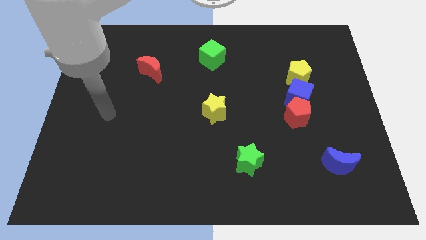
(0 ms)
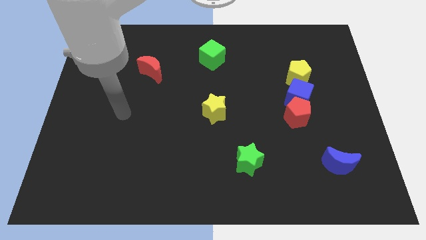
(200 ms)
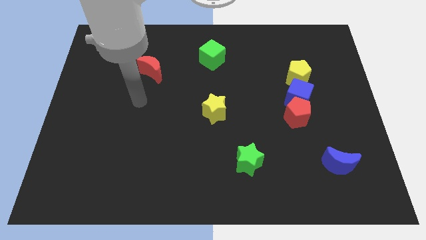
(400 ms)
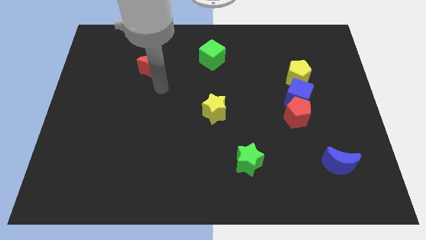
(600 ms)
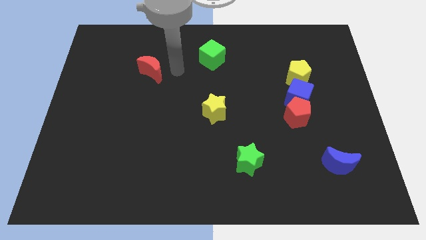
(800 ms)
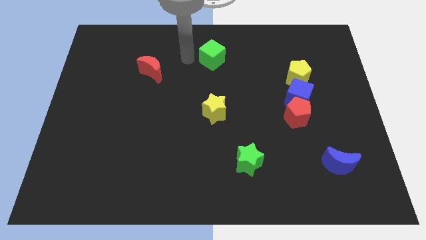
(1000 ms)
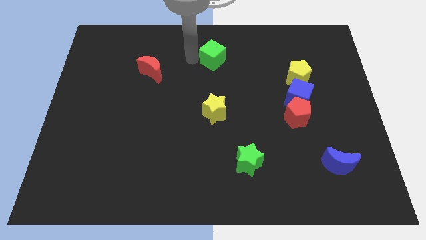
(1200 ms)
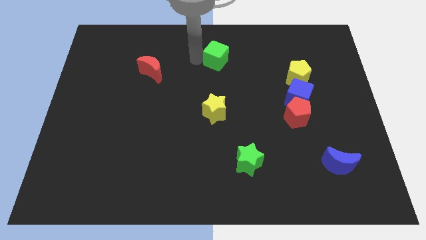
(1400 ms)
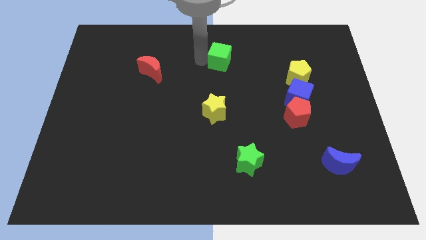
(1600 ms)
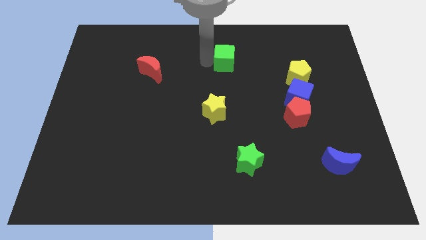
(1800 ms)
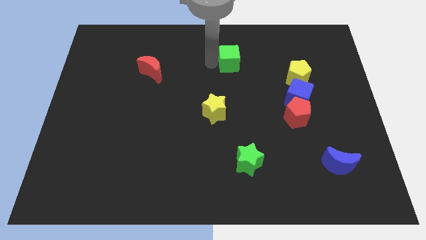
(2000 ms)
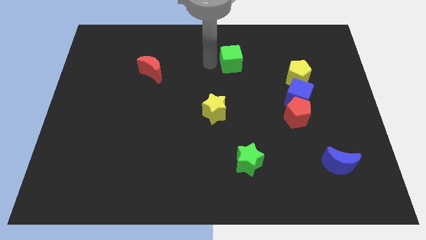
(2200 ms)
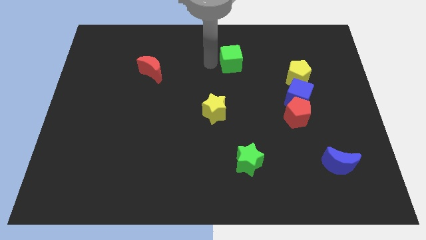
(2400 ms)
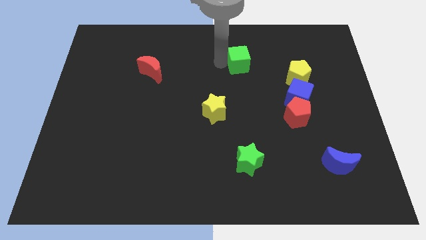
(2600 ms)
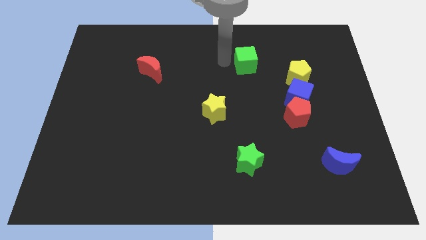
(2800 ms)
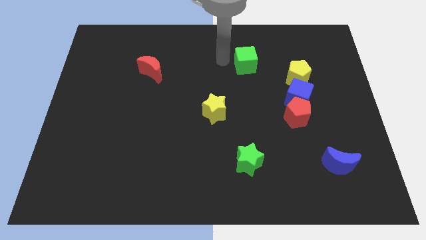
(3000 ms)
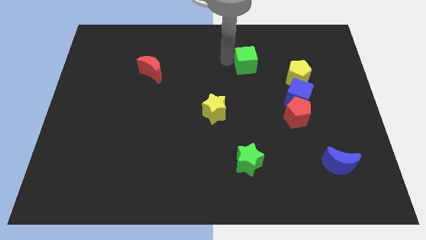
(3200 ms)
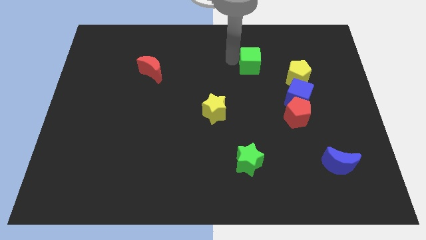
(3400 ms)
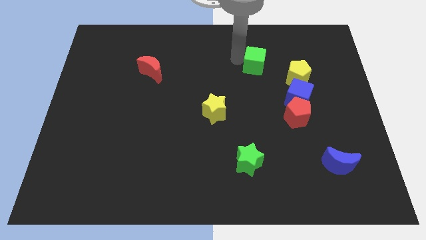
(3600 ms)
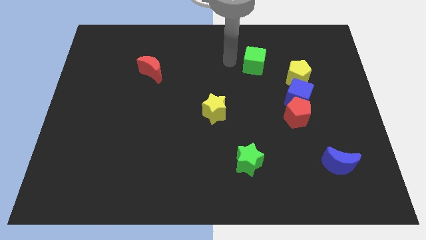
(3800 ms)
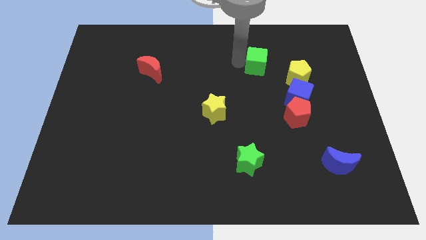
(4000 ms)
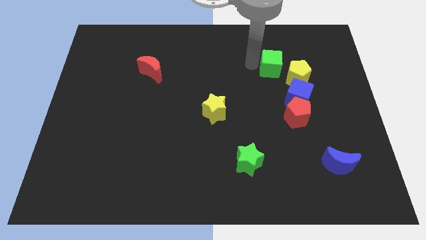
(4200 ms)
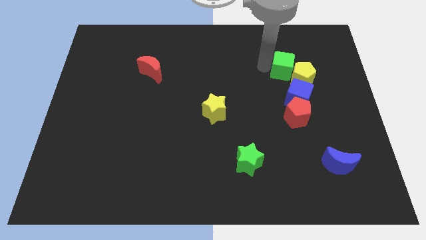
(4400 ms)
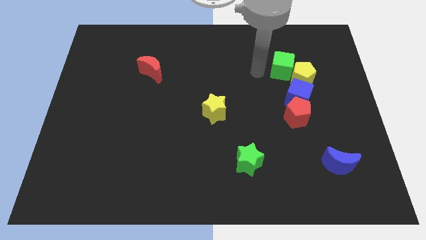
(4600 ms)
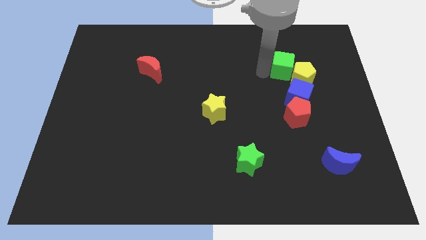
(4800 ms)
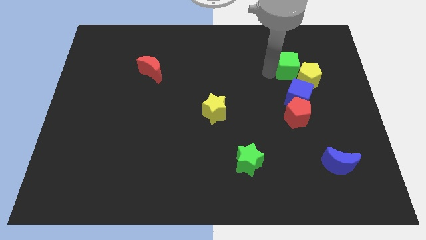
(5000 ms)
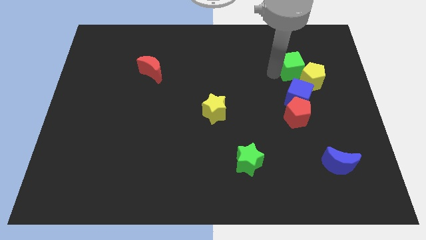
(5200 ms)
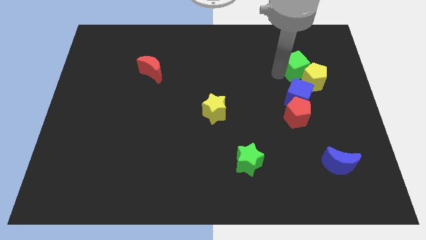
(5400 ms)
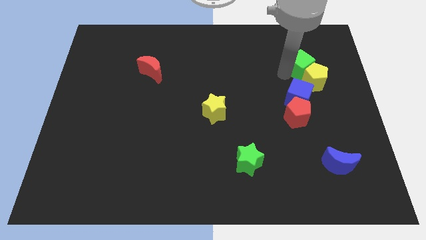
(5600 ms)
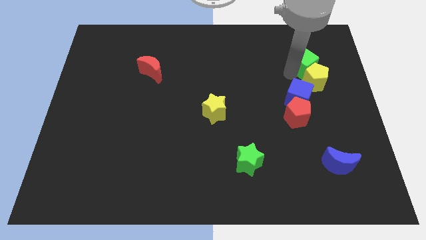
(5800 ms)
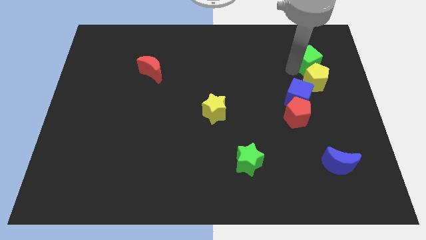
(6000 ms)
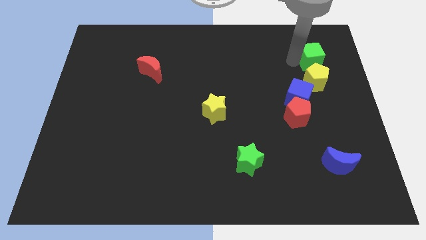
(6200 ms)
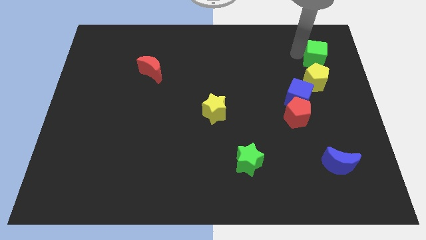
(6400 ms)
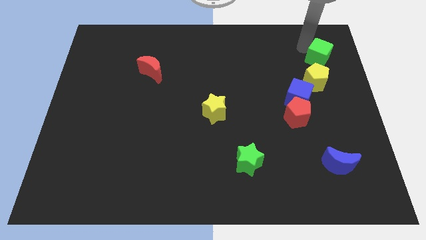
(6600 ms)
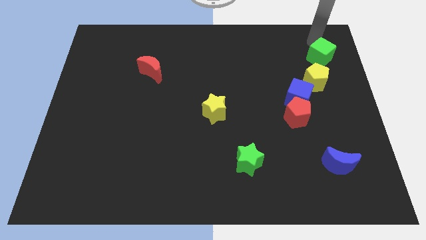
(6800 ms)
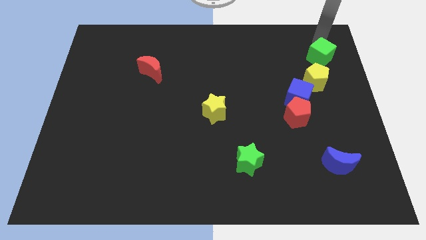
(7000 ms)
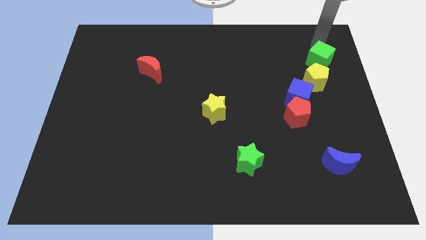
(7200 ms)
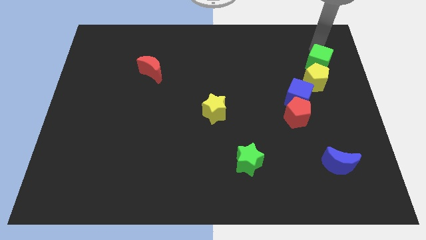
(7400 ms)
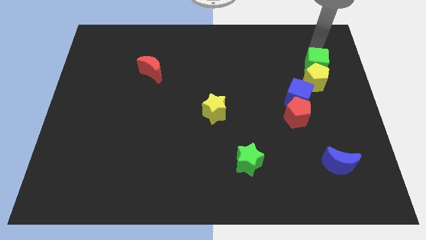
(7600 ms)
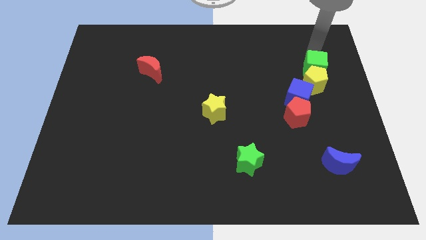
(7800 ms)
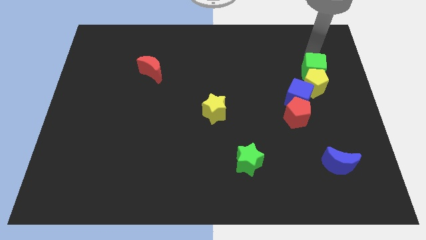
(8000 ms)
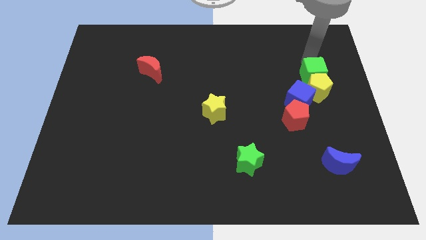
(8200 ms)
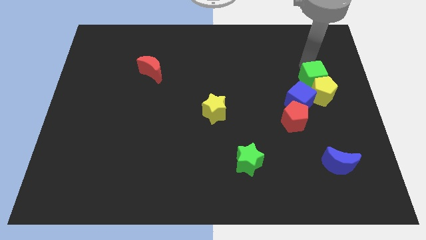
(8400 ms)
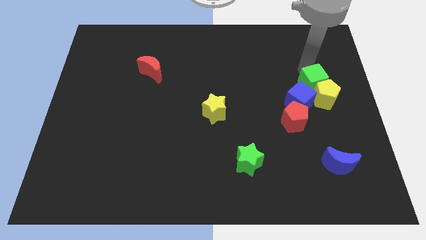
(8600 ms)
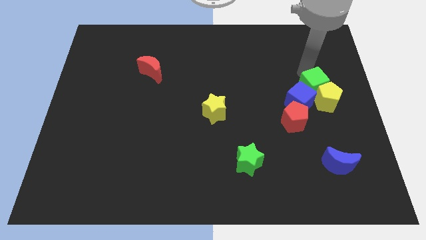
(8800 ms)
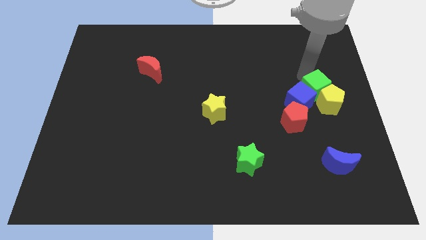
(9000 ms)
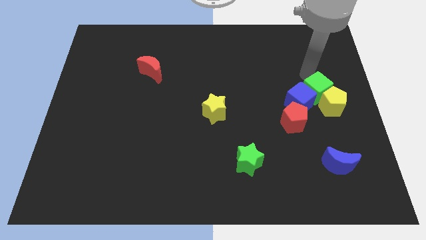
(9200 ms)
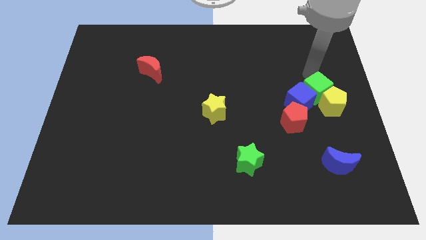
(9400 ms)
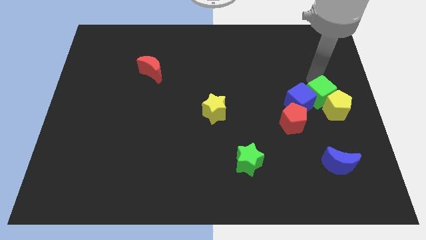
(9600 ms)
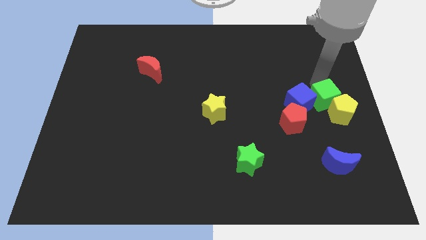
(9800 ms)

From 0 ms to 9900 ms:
put the green cube to the bottom right side of the blue cube
